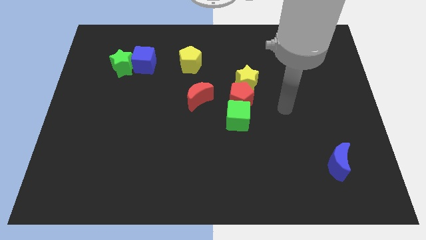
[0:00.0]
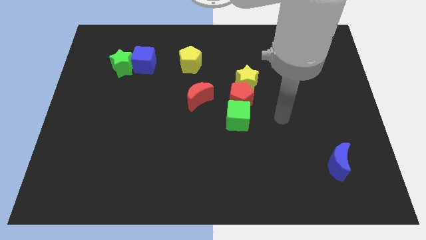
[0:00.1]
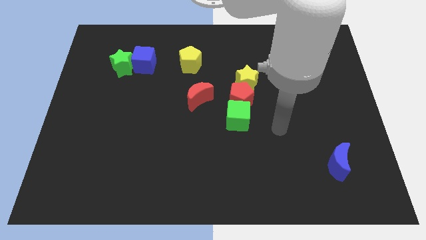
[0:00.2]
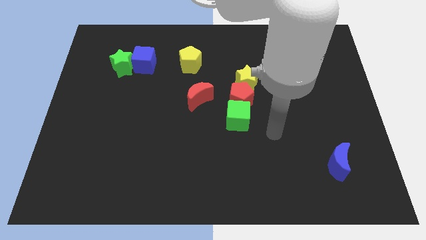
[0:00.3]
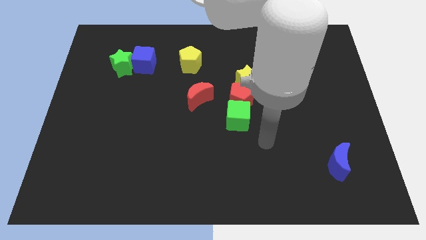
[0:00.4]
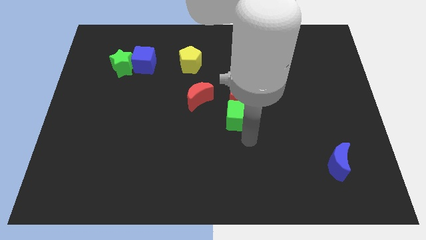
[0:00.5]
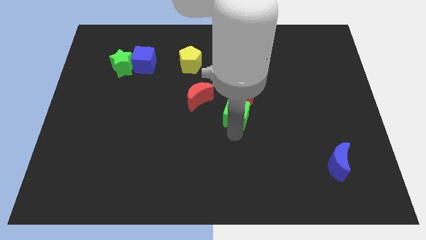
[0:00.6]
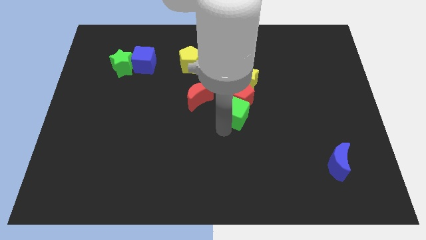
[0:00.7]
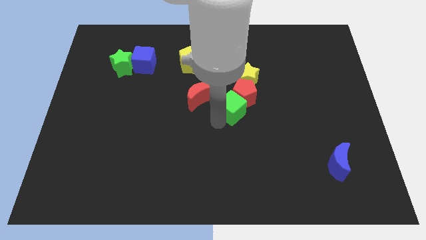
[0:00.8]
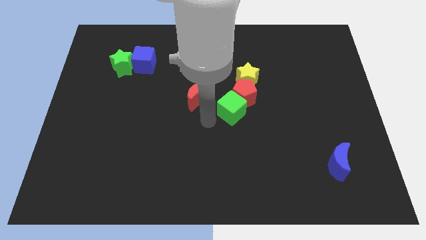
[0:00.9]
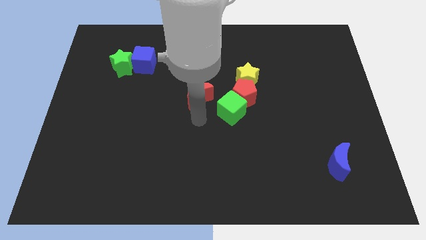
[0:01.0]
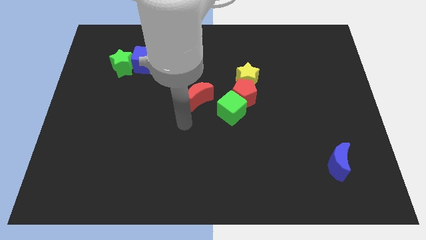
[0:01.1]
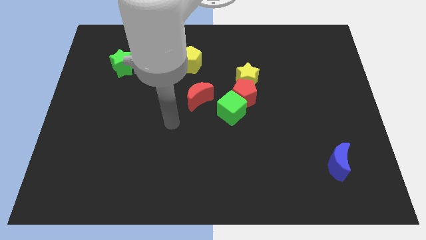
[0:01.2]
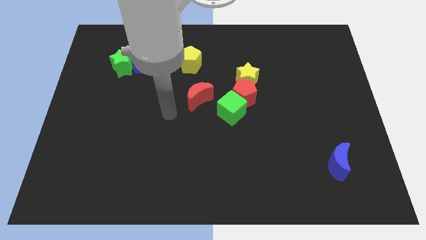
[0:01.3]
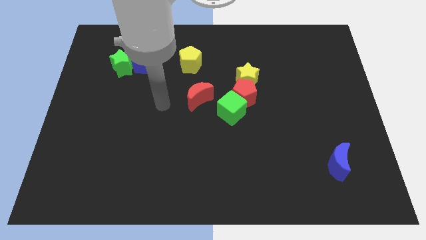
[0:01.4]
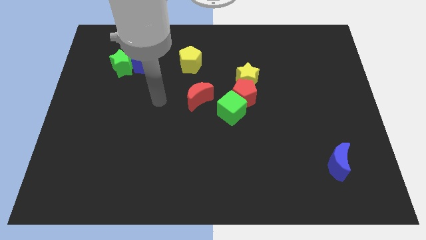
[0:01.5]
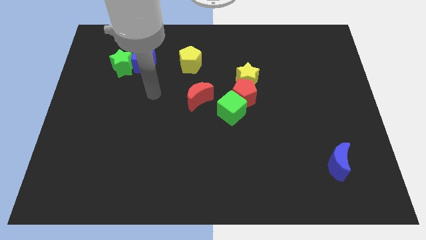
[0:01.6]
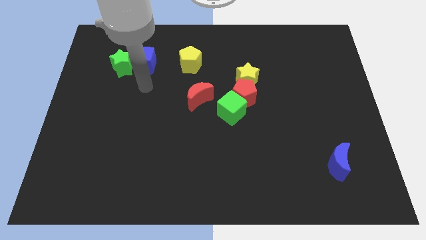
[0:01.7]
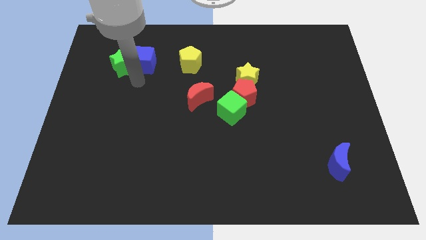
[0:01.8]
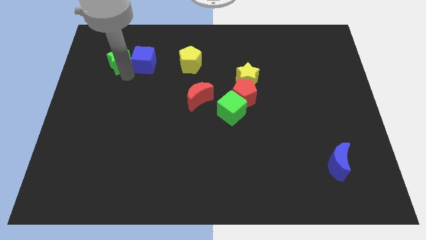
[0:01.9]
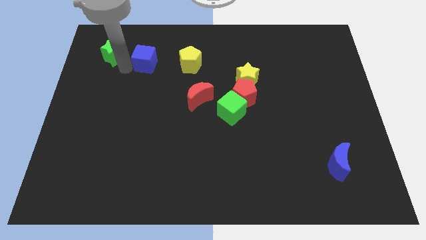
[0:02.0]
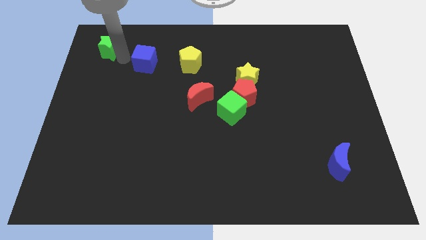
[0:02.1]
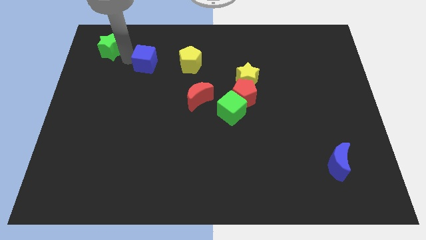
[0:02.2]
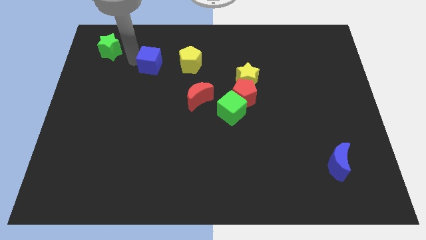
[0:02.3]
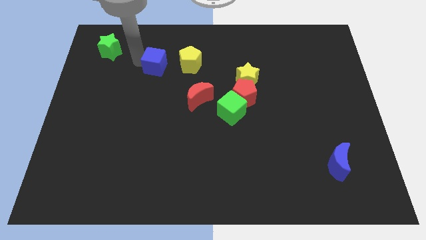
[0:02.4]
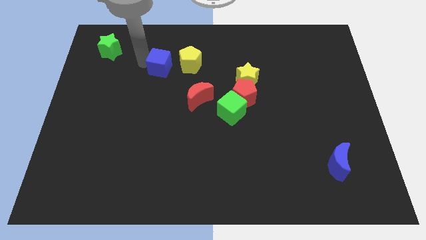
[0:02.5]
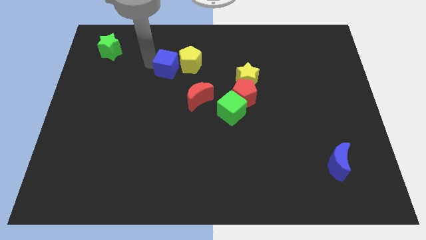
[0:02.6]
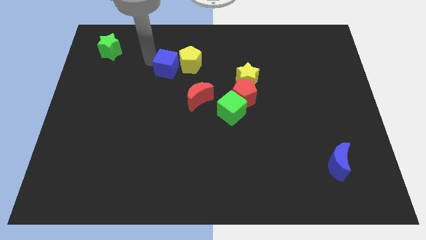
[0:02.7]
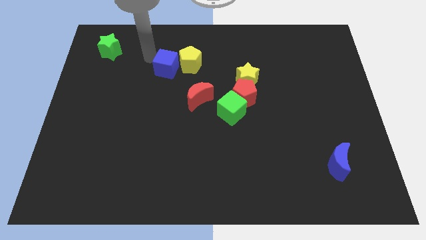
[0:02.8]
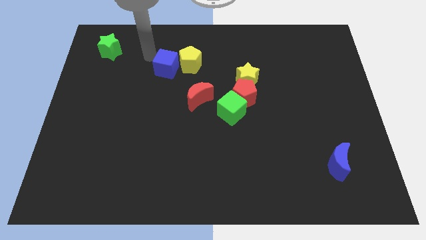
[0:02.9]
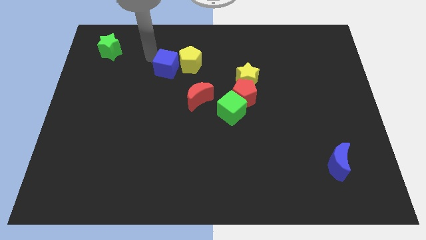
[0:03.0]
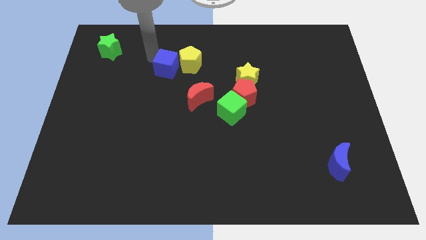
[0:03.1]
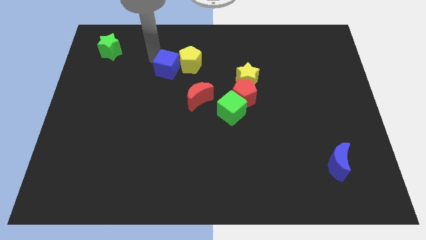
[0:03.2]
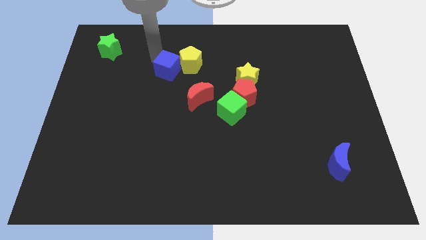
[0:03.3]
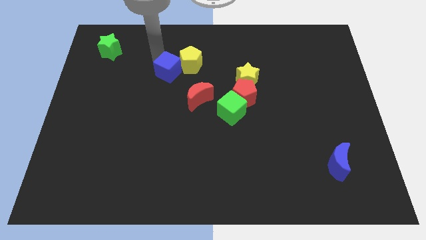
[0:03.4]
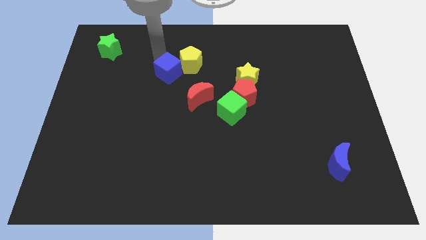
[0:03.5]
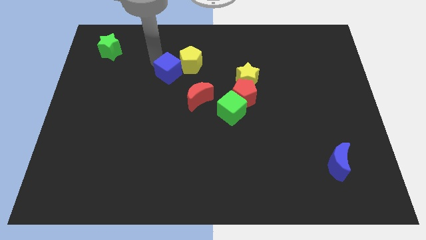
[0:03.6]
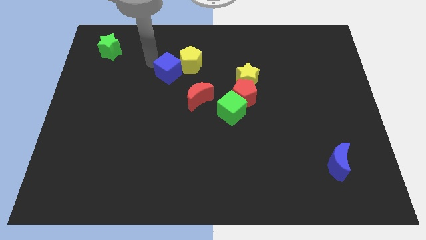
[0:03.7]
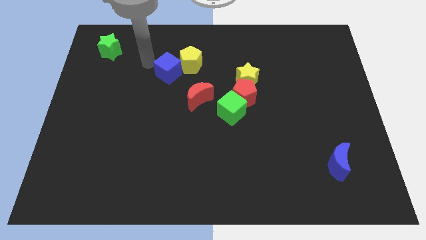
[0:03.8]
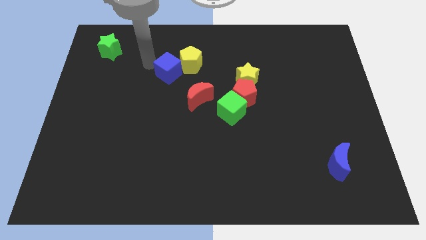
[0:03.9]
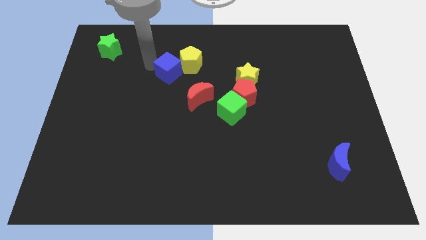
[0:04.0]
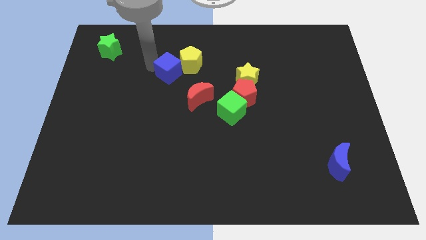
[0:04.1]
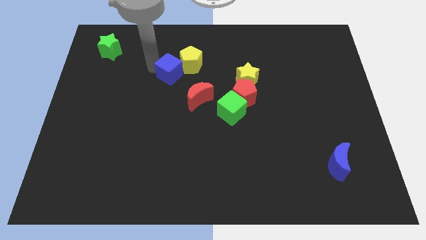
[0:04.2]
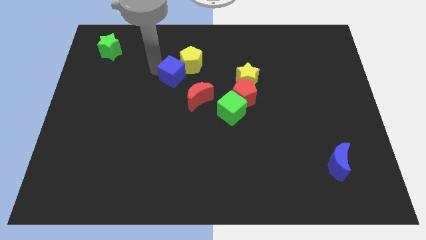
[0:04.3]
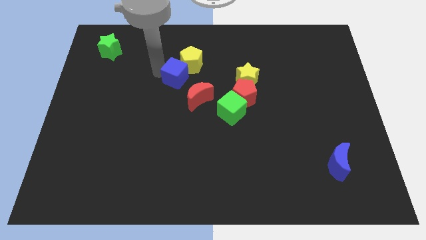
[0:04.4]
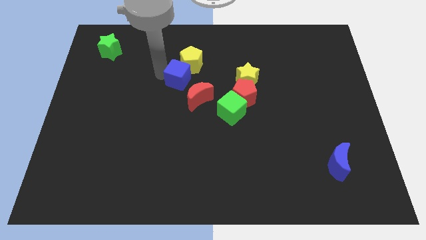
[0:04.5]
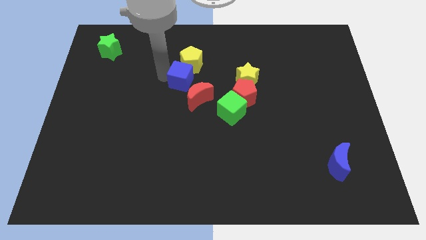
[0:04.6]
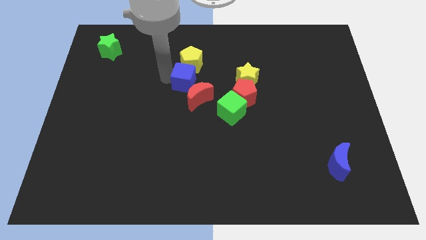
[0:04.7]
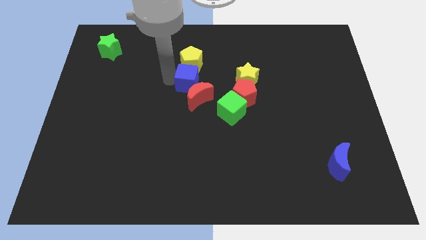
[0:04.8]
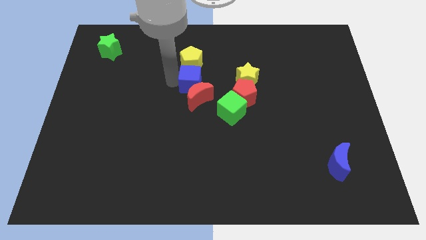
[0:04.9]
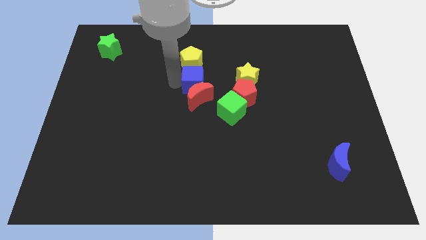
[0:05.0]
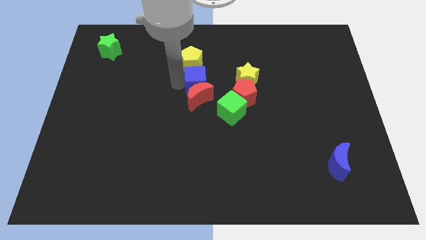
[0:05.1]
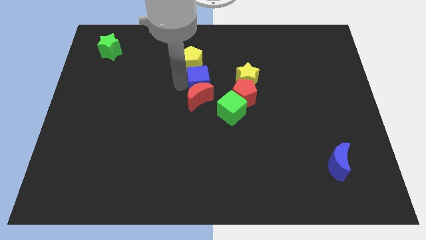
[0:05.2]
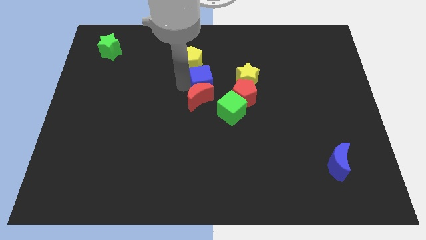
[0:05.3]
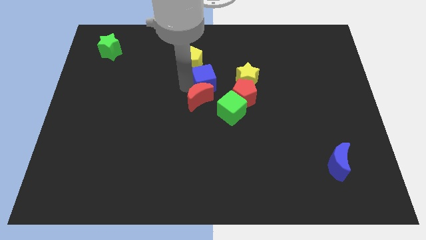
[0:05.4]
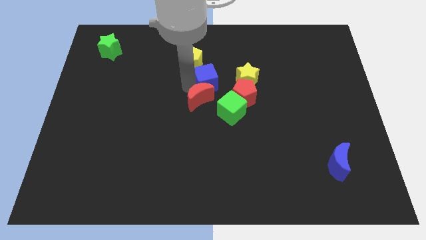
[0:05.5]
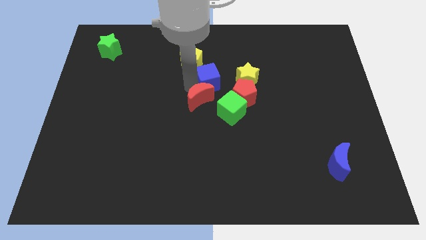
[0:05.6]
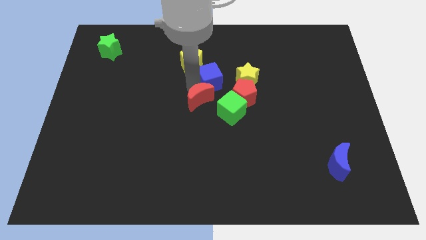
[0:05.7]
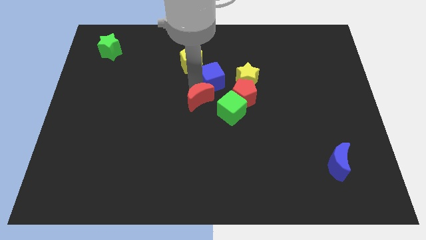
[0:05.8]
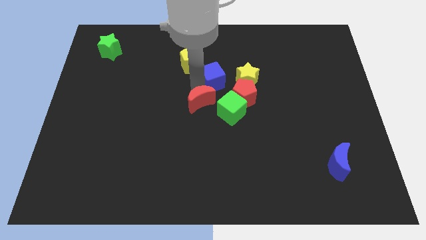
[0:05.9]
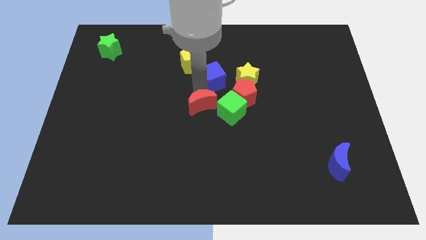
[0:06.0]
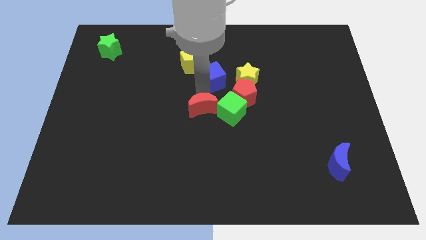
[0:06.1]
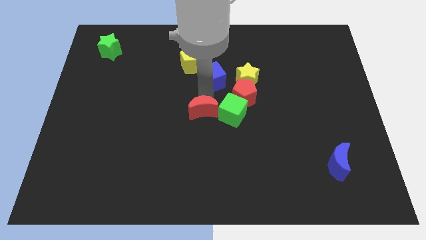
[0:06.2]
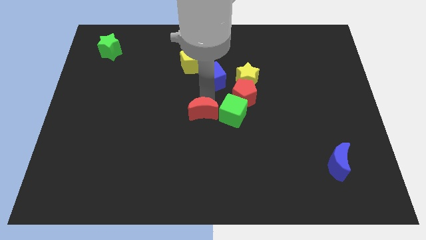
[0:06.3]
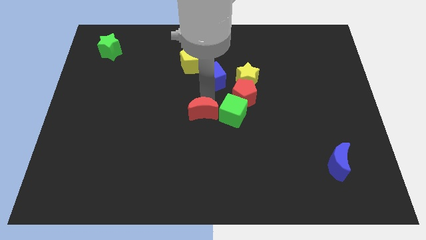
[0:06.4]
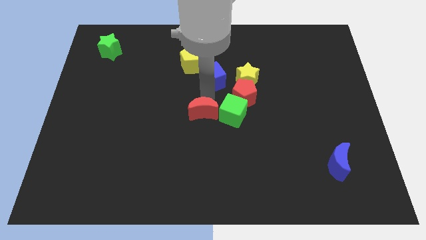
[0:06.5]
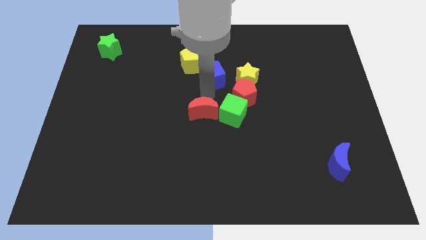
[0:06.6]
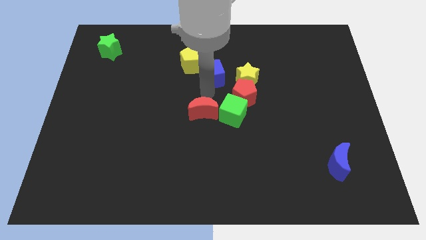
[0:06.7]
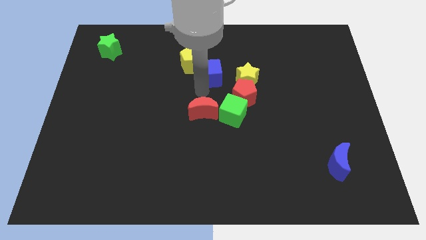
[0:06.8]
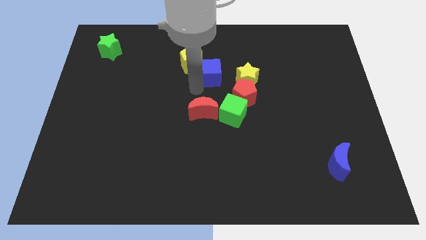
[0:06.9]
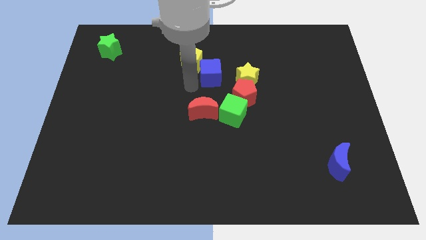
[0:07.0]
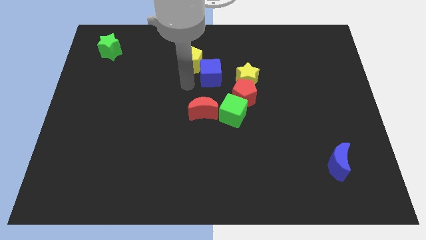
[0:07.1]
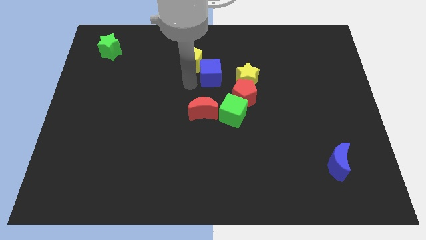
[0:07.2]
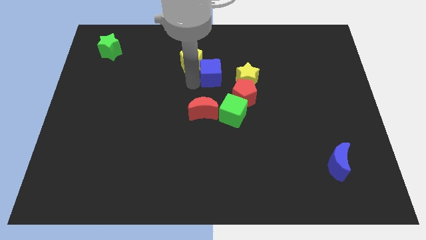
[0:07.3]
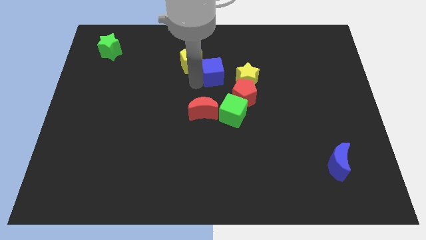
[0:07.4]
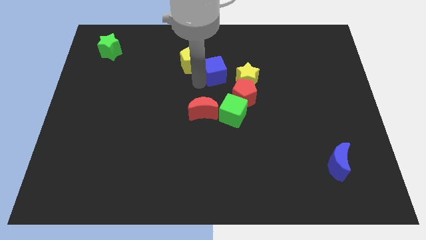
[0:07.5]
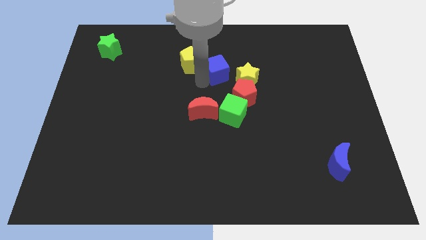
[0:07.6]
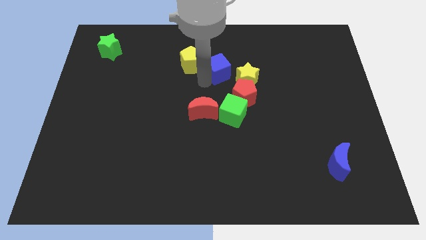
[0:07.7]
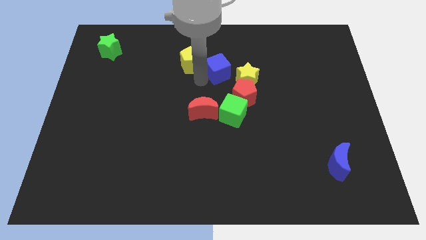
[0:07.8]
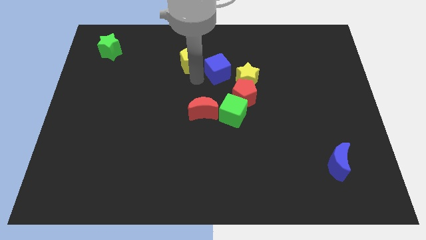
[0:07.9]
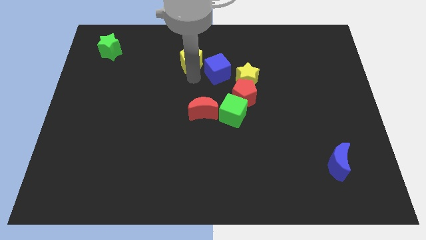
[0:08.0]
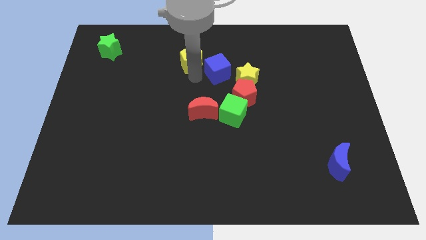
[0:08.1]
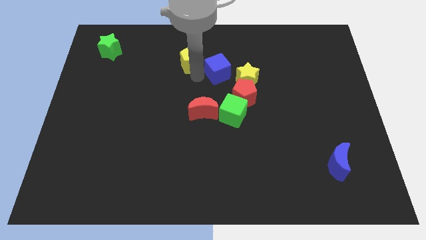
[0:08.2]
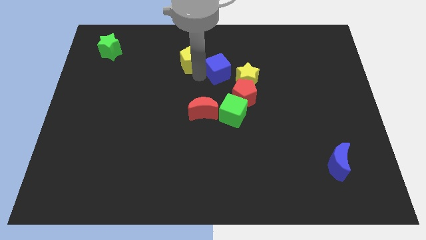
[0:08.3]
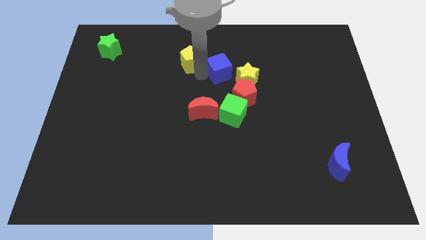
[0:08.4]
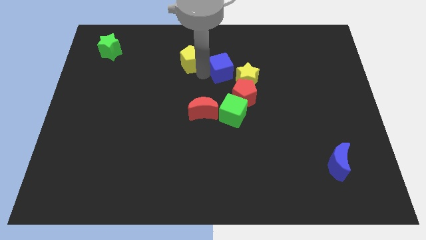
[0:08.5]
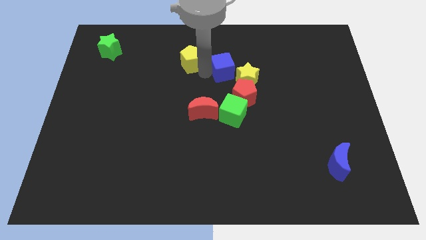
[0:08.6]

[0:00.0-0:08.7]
push the blue cube to the right
